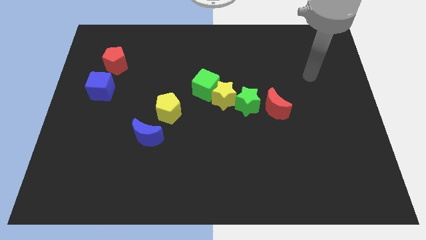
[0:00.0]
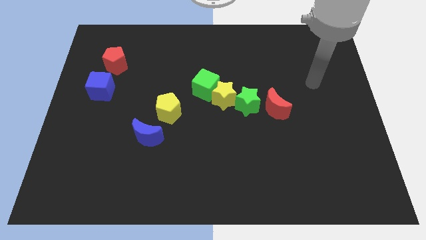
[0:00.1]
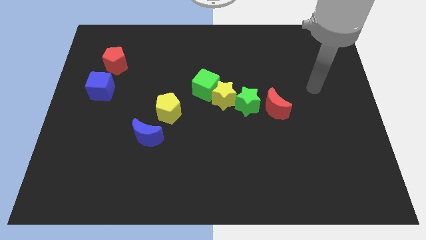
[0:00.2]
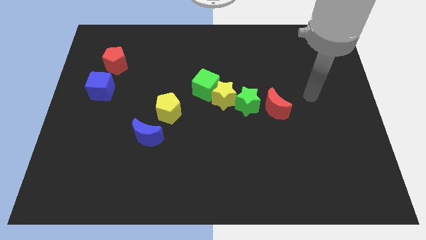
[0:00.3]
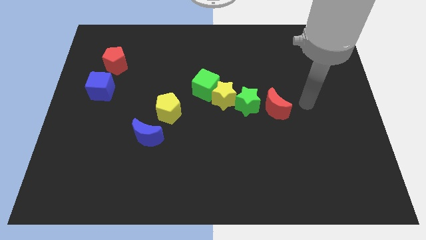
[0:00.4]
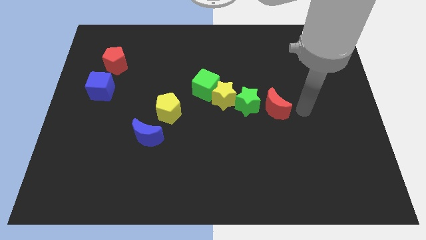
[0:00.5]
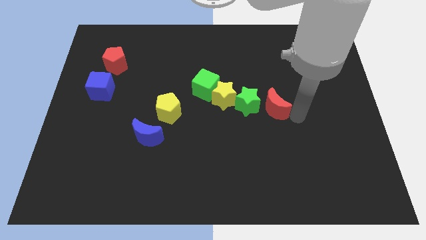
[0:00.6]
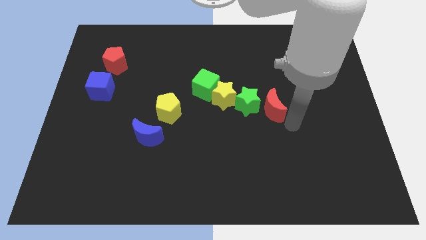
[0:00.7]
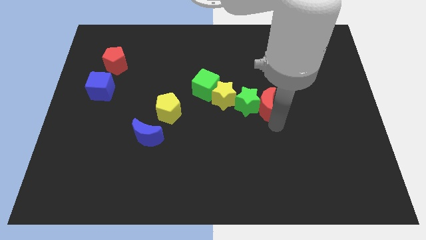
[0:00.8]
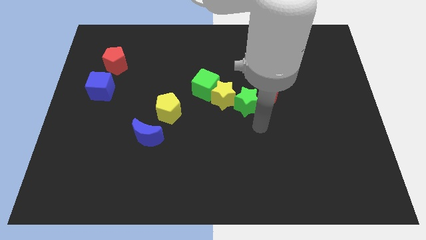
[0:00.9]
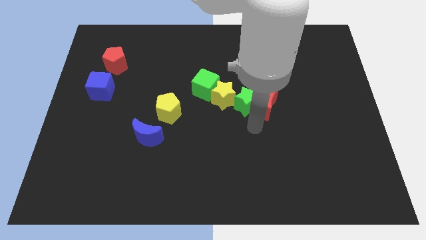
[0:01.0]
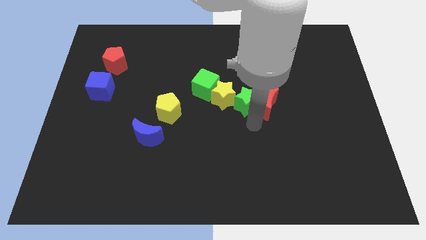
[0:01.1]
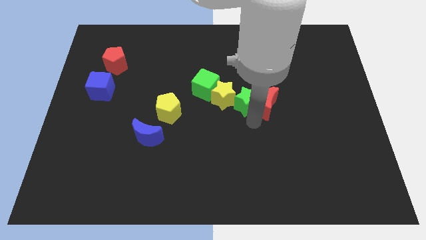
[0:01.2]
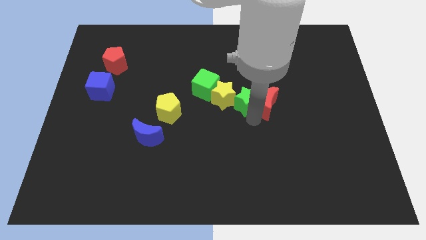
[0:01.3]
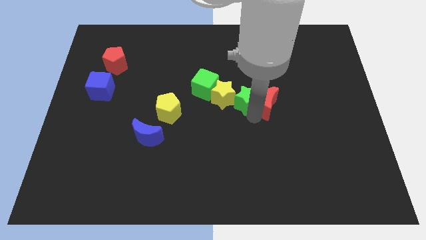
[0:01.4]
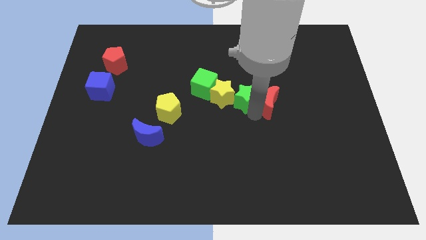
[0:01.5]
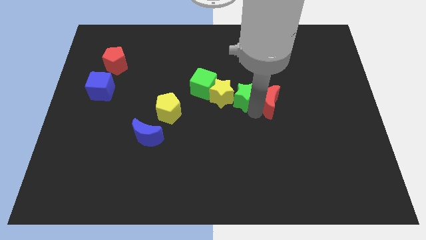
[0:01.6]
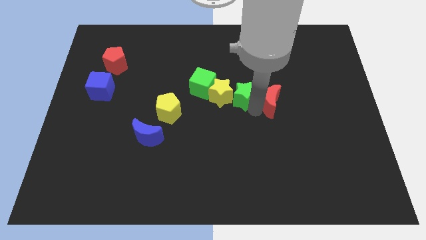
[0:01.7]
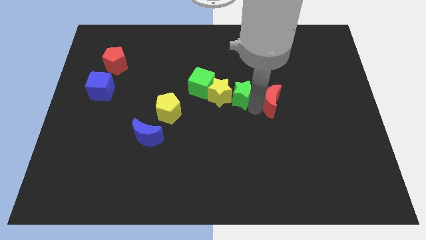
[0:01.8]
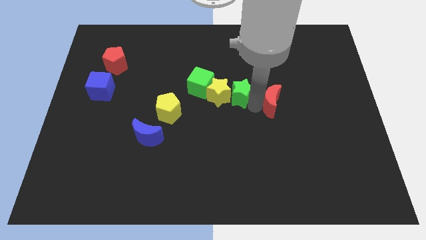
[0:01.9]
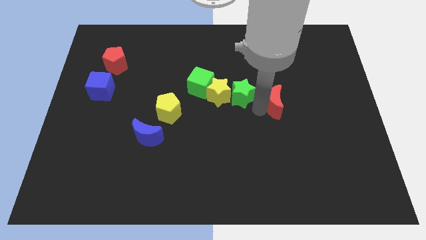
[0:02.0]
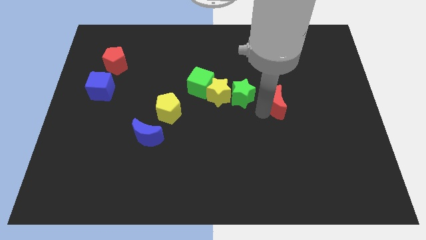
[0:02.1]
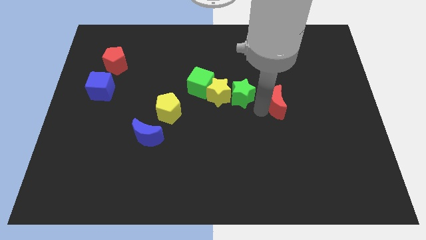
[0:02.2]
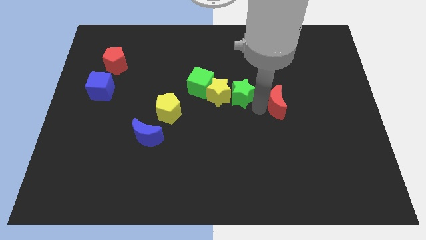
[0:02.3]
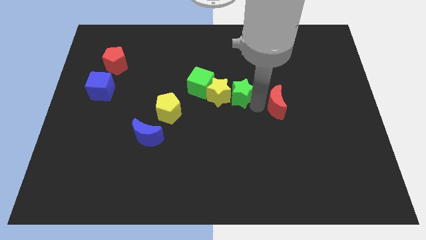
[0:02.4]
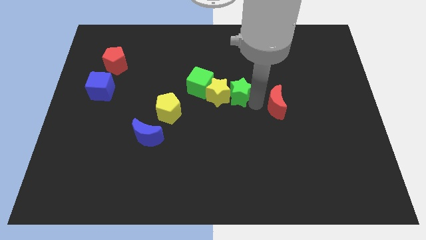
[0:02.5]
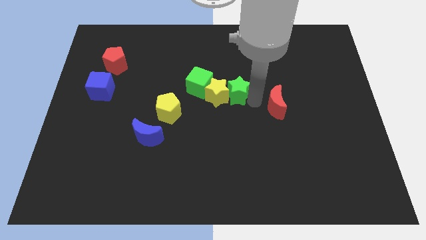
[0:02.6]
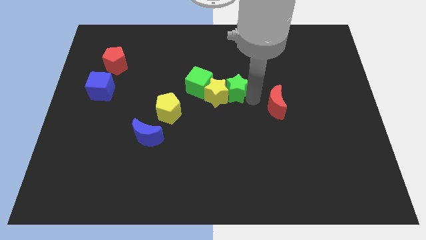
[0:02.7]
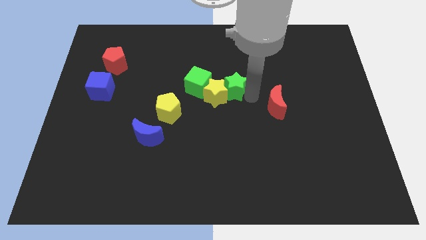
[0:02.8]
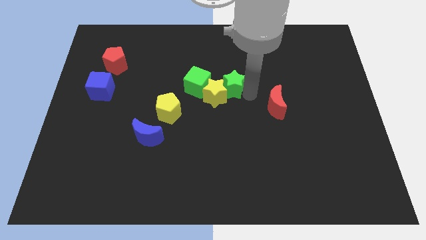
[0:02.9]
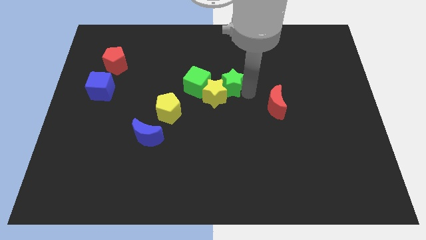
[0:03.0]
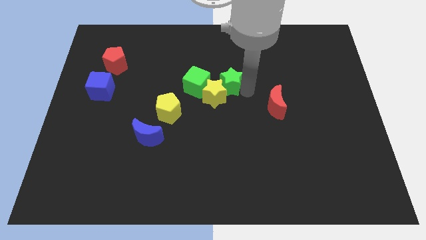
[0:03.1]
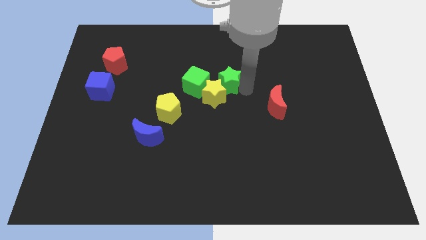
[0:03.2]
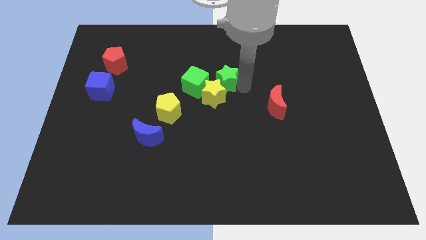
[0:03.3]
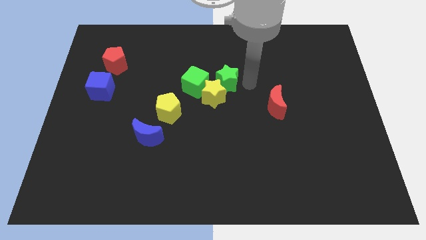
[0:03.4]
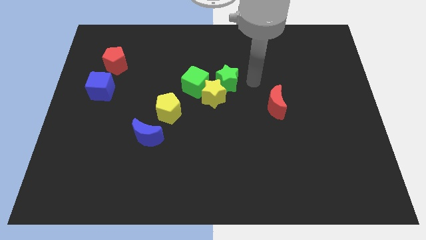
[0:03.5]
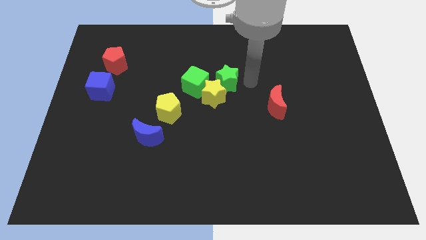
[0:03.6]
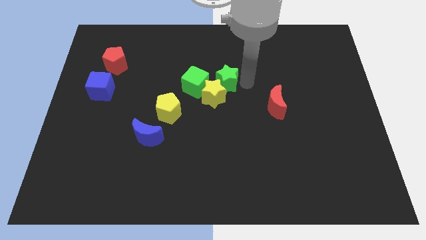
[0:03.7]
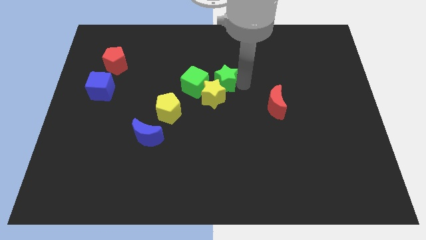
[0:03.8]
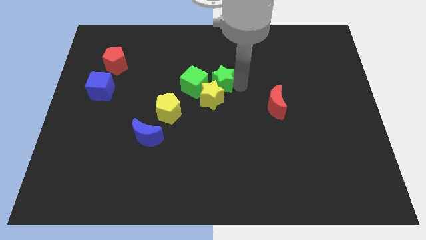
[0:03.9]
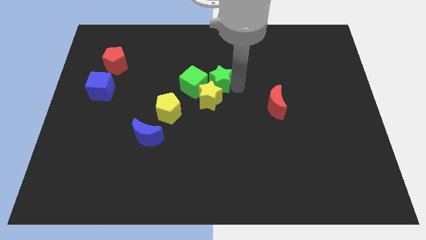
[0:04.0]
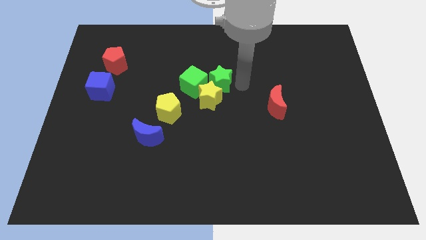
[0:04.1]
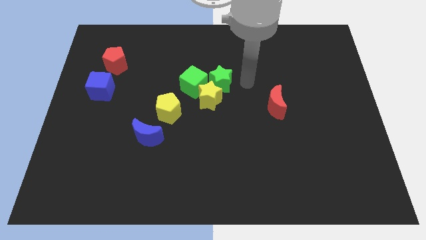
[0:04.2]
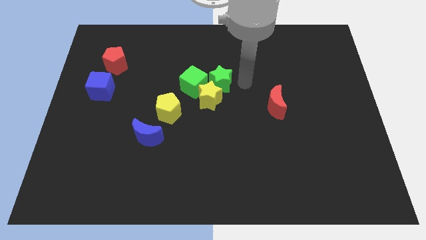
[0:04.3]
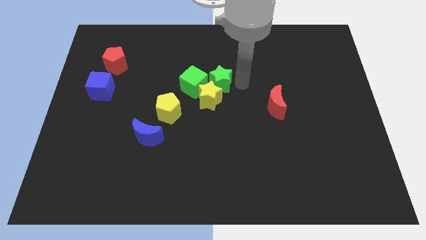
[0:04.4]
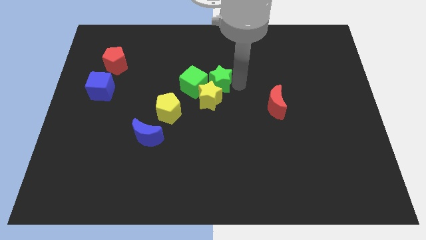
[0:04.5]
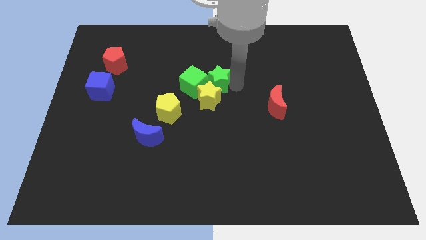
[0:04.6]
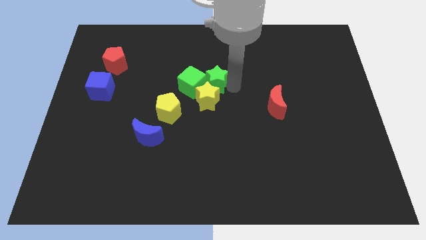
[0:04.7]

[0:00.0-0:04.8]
slide the green star towards the green cube

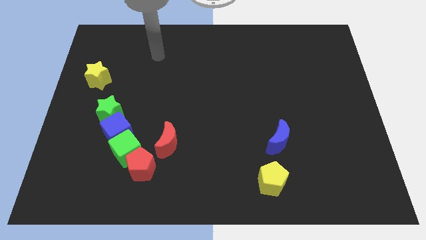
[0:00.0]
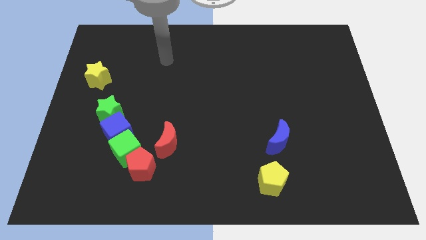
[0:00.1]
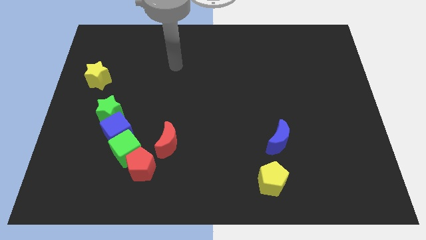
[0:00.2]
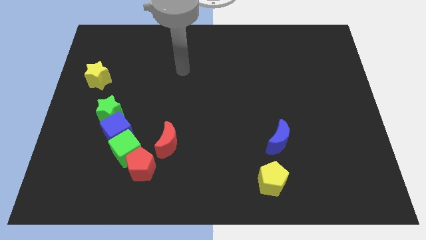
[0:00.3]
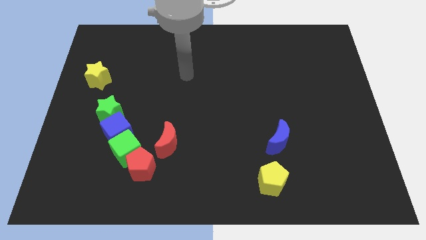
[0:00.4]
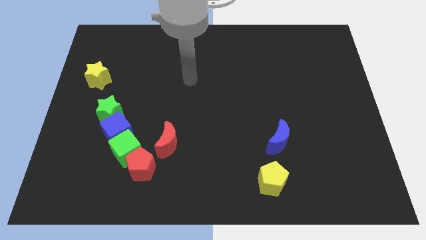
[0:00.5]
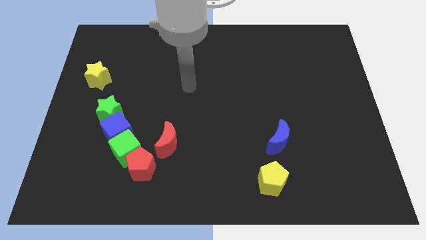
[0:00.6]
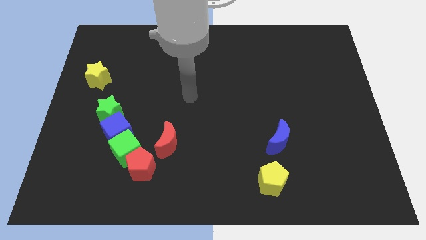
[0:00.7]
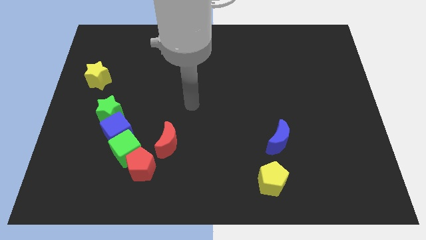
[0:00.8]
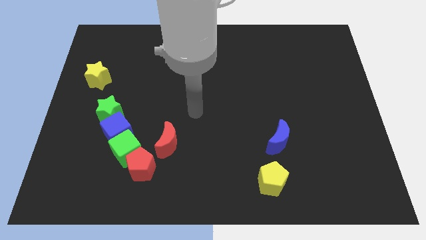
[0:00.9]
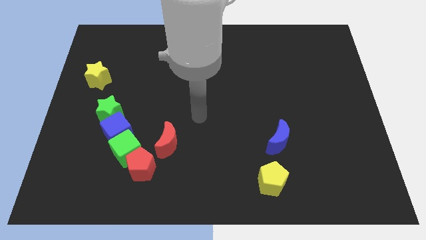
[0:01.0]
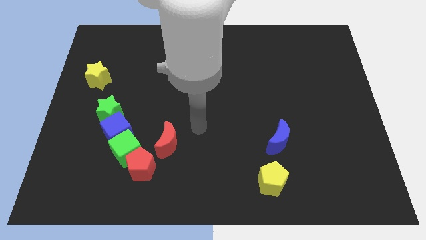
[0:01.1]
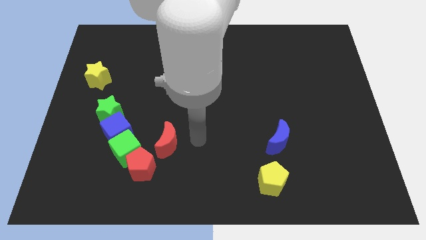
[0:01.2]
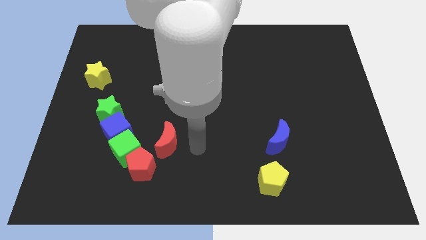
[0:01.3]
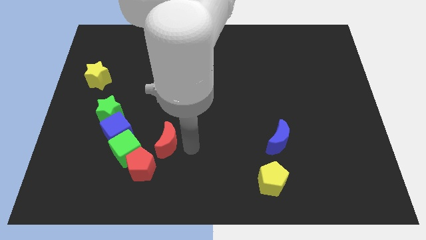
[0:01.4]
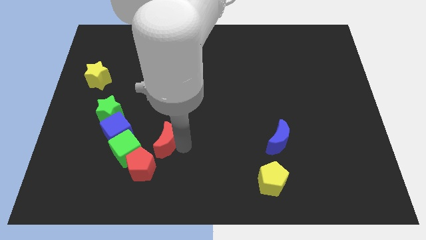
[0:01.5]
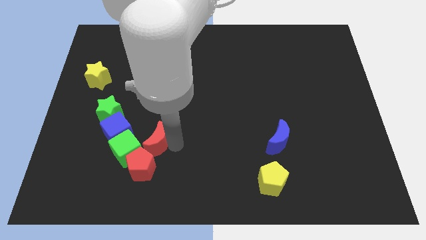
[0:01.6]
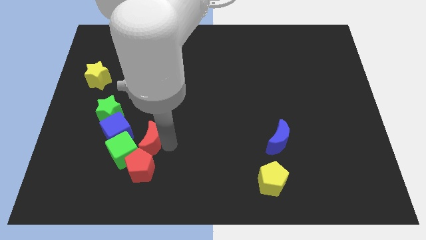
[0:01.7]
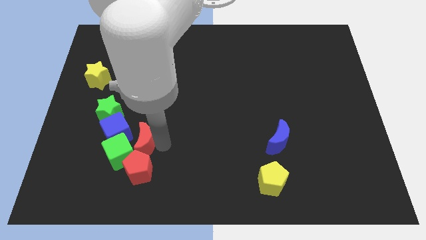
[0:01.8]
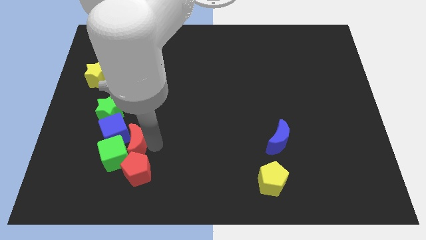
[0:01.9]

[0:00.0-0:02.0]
put the red moon to the blue cube

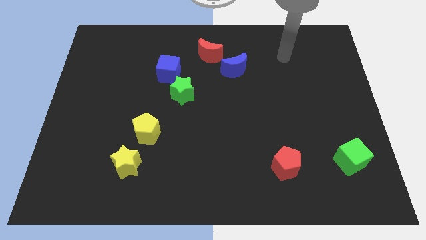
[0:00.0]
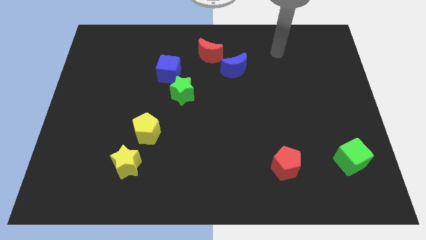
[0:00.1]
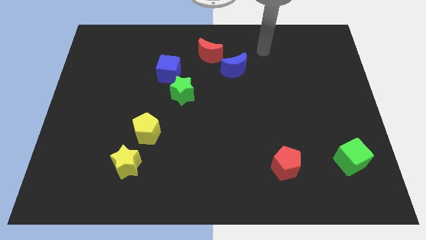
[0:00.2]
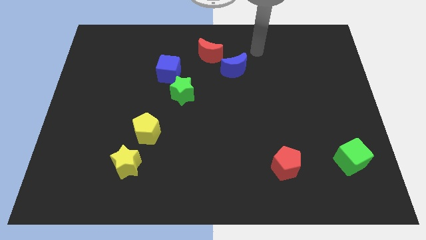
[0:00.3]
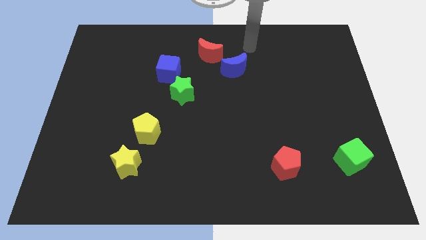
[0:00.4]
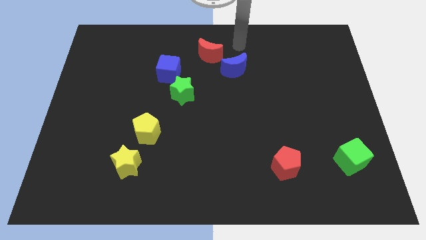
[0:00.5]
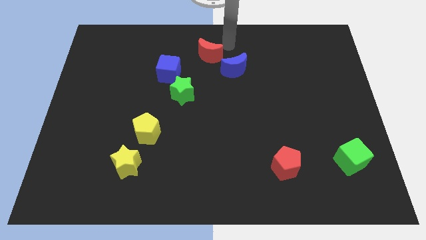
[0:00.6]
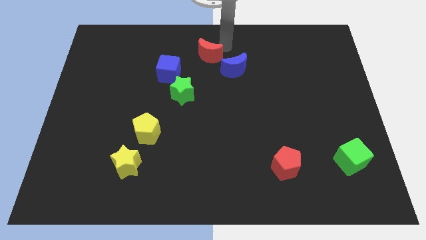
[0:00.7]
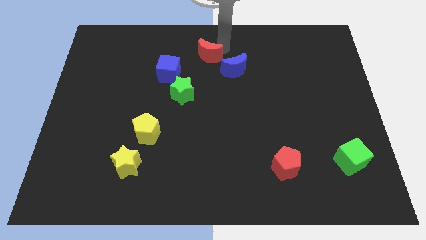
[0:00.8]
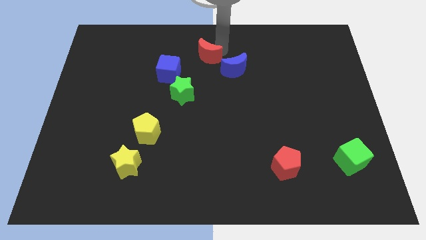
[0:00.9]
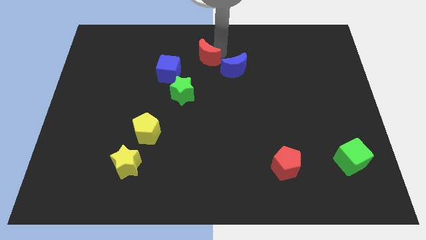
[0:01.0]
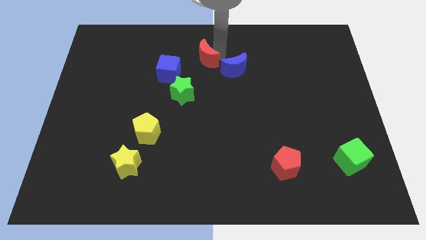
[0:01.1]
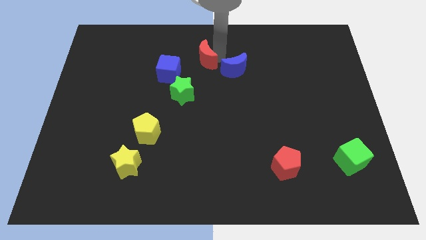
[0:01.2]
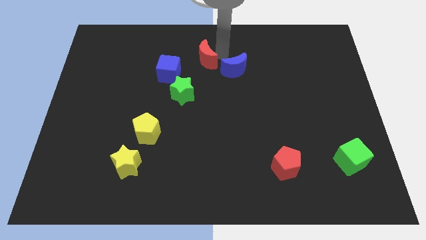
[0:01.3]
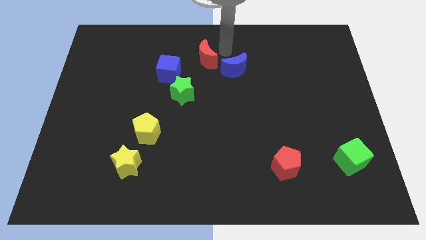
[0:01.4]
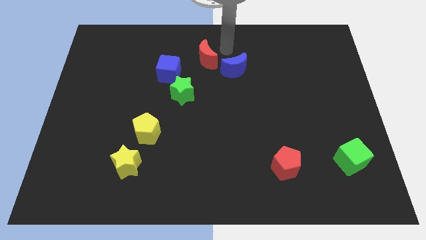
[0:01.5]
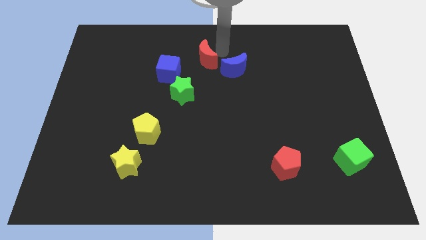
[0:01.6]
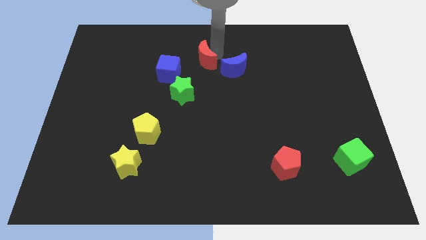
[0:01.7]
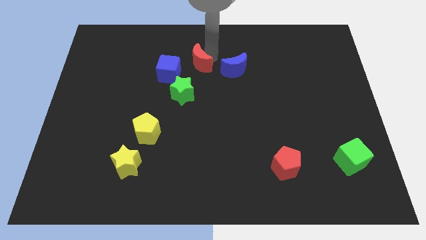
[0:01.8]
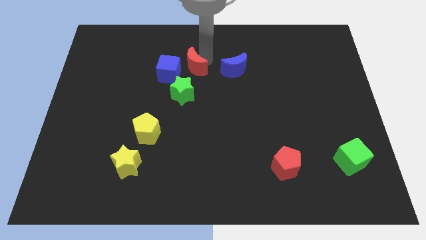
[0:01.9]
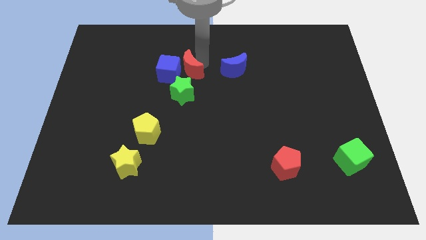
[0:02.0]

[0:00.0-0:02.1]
push the red moon close to the blue cube
